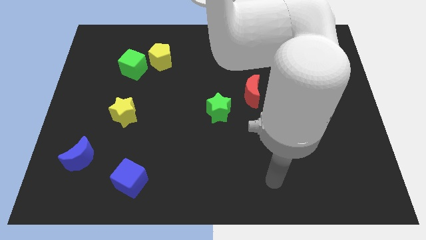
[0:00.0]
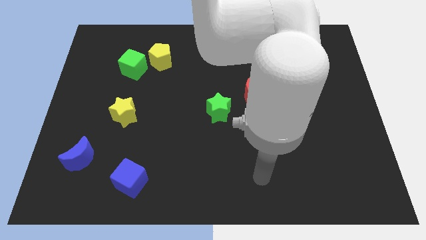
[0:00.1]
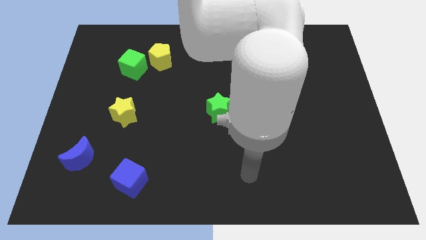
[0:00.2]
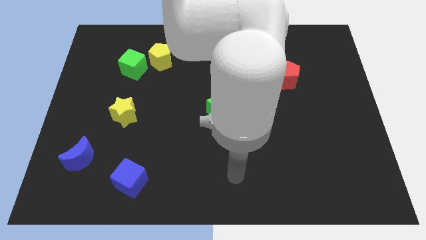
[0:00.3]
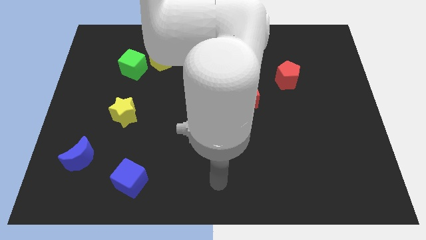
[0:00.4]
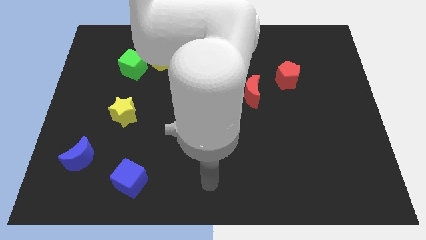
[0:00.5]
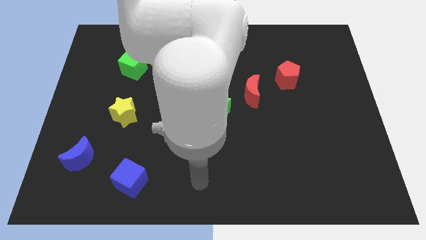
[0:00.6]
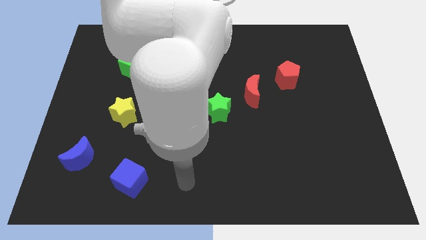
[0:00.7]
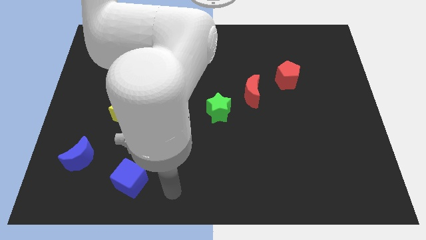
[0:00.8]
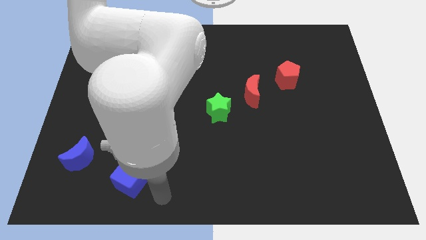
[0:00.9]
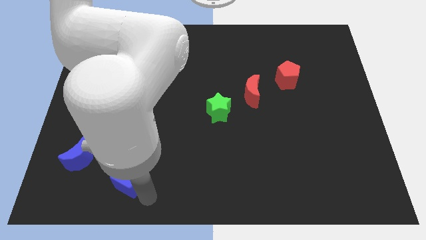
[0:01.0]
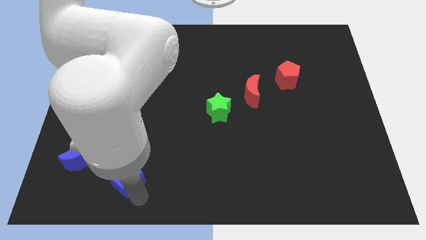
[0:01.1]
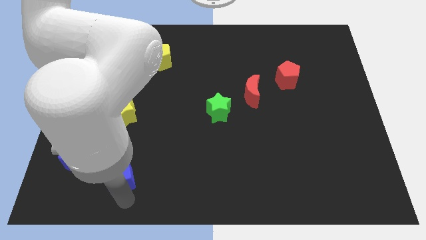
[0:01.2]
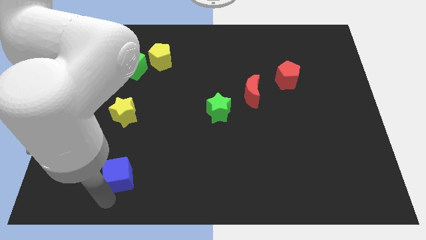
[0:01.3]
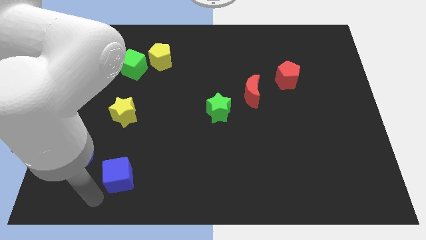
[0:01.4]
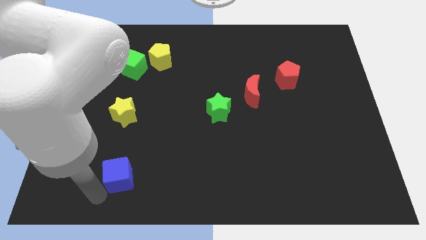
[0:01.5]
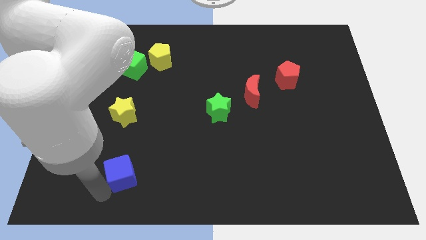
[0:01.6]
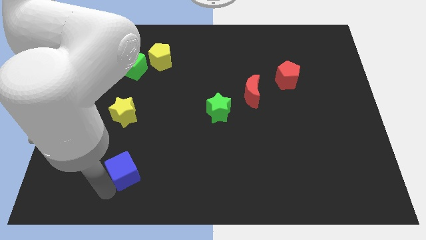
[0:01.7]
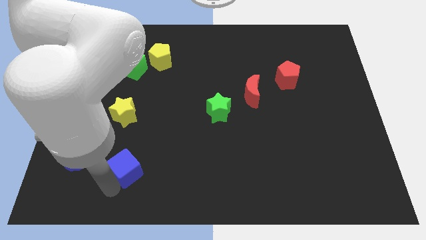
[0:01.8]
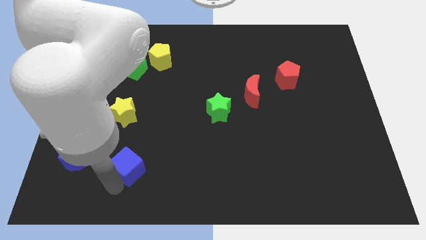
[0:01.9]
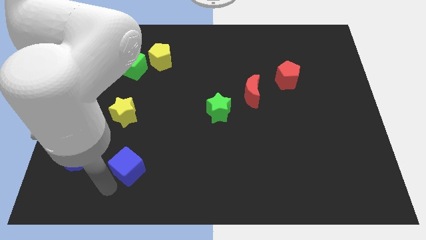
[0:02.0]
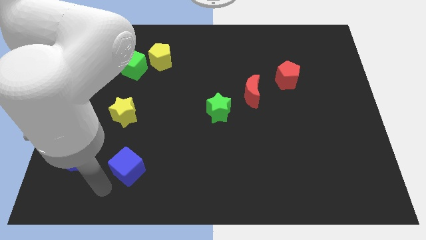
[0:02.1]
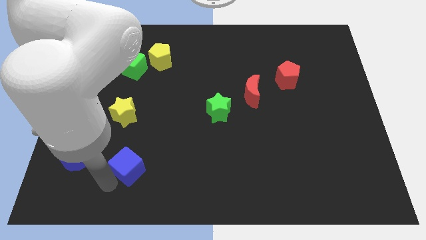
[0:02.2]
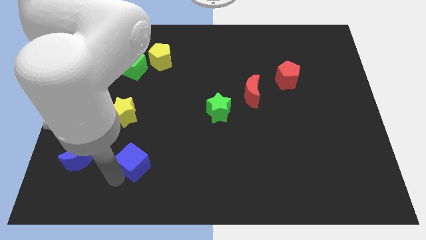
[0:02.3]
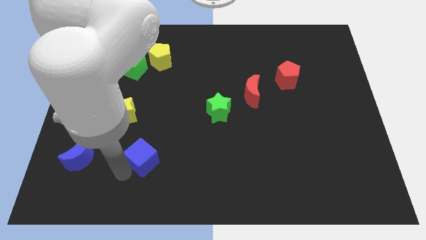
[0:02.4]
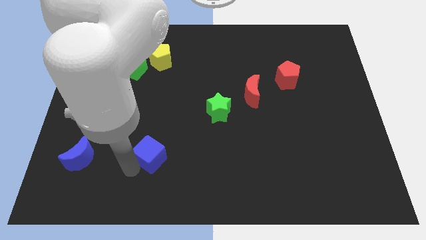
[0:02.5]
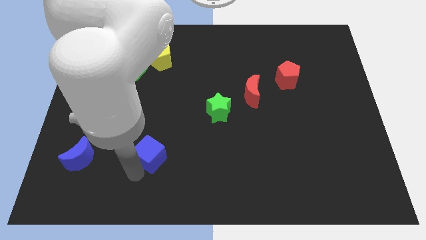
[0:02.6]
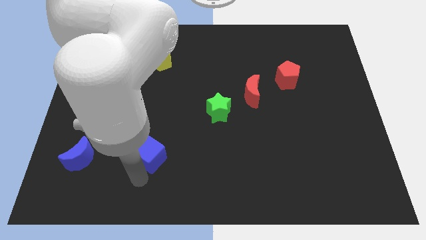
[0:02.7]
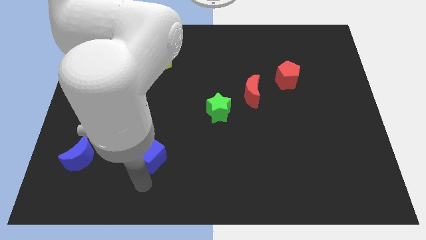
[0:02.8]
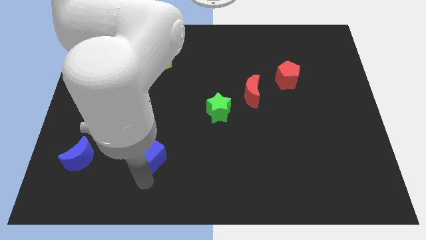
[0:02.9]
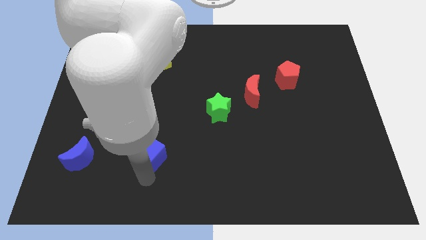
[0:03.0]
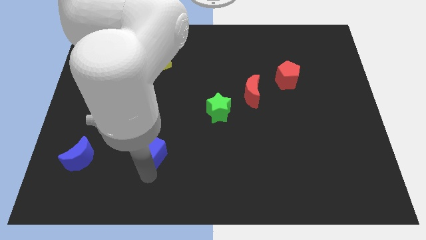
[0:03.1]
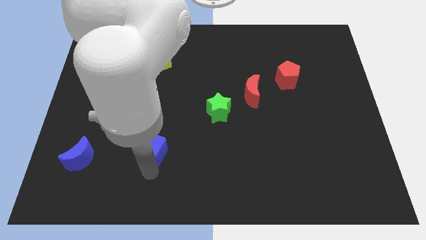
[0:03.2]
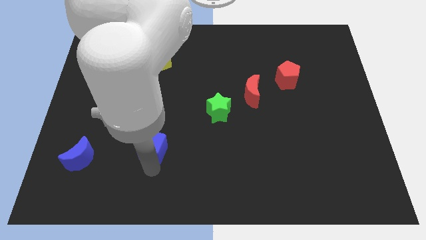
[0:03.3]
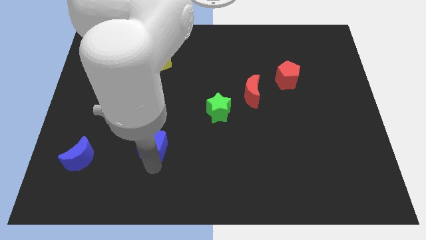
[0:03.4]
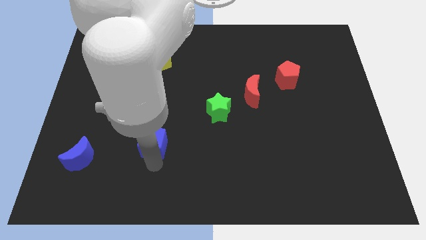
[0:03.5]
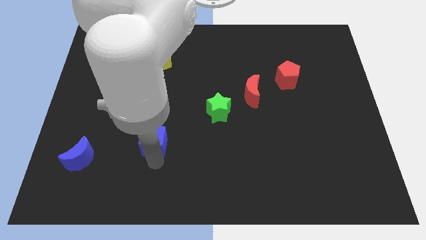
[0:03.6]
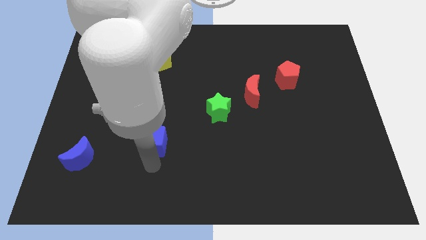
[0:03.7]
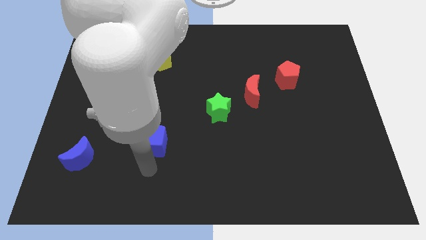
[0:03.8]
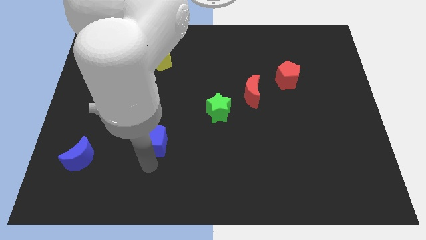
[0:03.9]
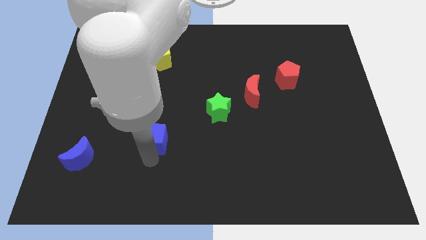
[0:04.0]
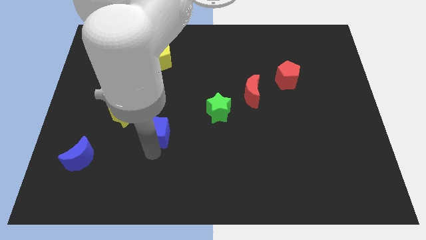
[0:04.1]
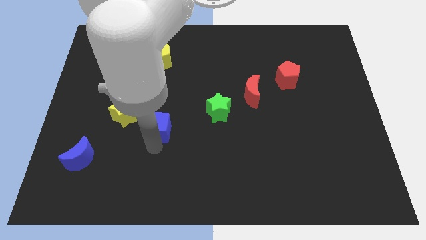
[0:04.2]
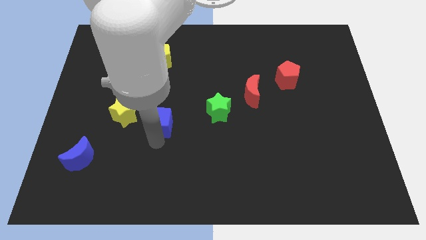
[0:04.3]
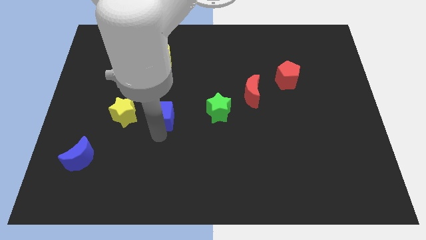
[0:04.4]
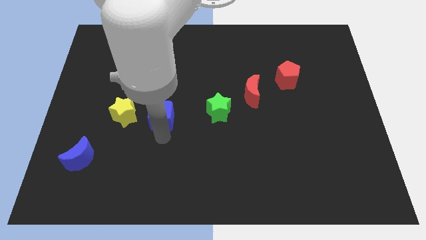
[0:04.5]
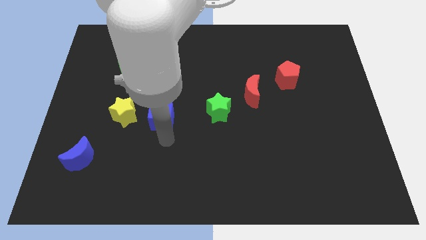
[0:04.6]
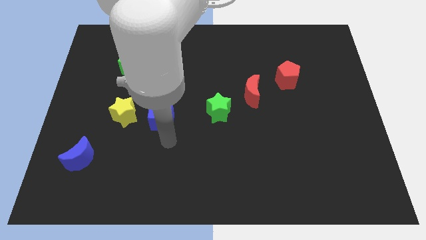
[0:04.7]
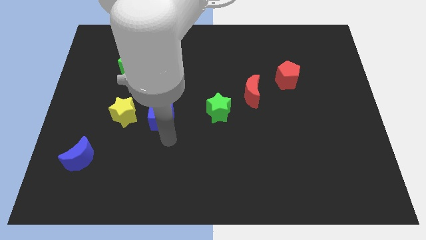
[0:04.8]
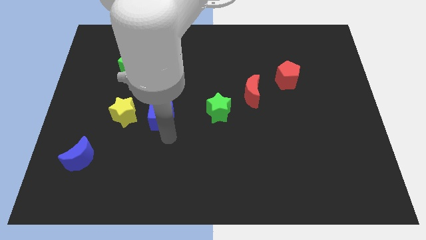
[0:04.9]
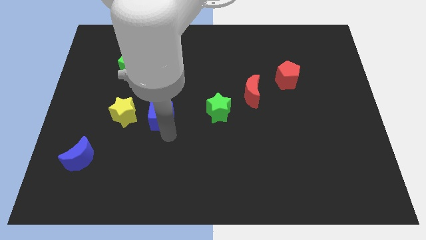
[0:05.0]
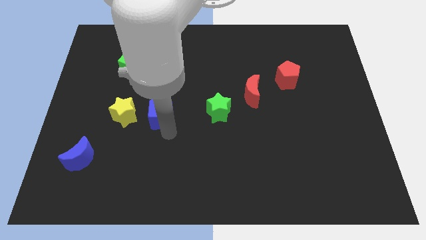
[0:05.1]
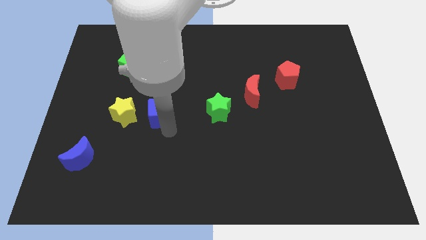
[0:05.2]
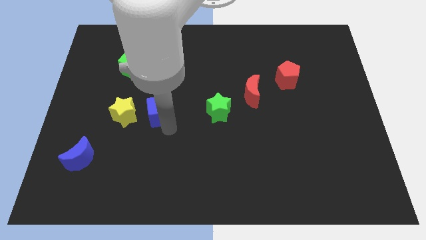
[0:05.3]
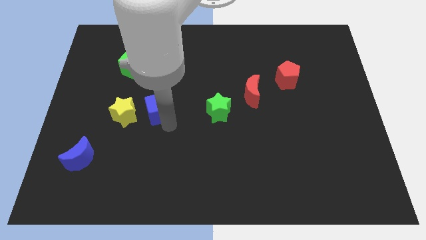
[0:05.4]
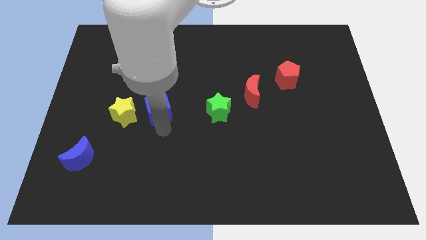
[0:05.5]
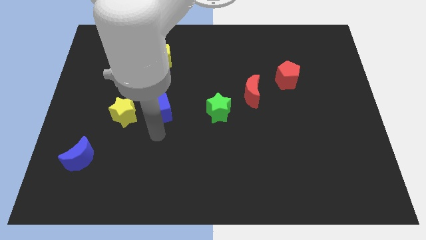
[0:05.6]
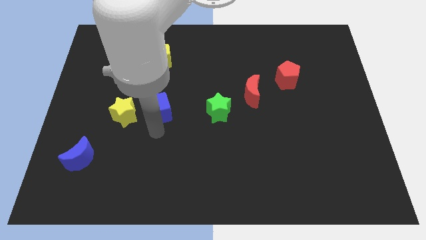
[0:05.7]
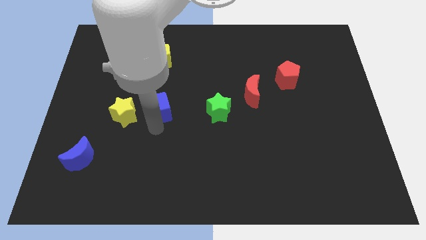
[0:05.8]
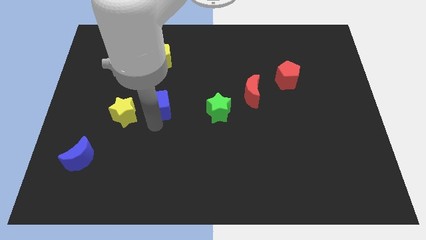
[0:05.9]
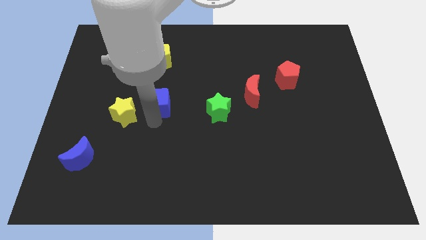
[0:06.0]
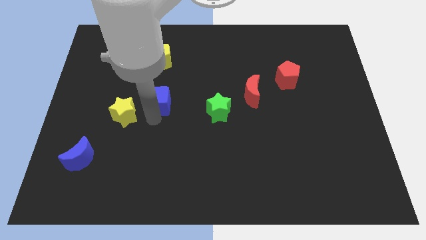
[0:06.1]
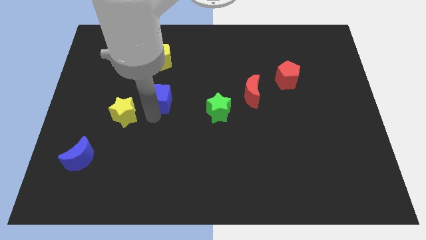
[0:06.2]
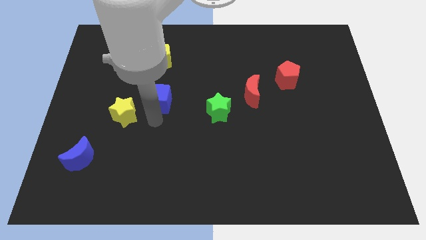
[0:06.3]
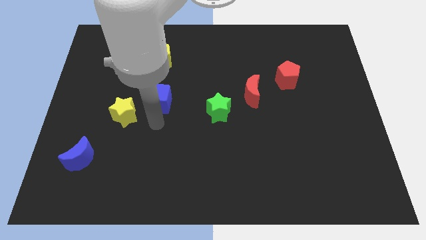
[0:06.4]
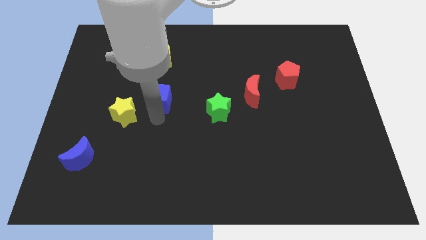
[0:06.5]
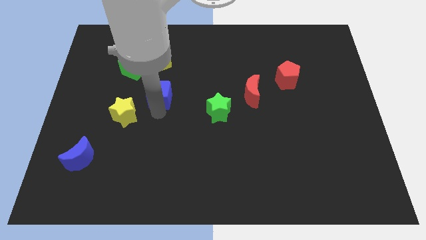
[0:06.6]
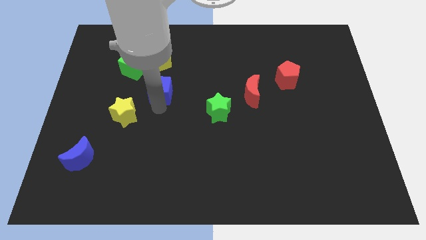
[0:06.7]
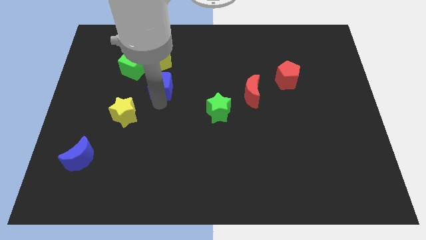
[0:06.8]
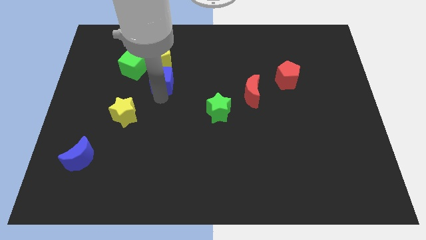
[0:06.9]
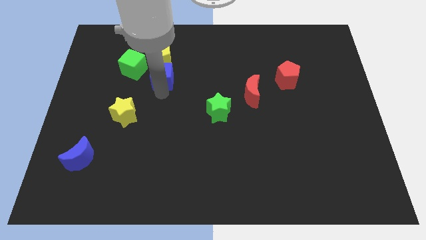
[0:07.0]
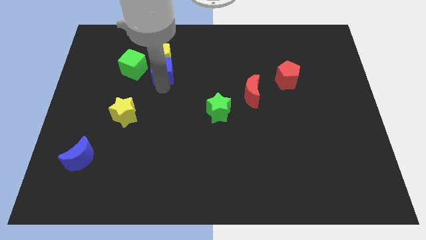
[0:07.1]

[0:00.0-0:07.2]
slide the blue cube towards the yellow pentagon
